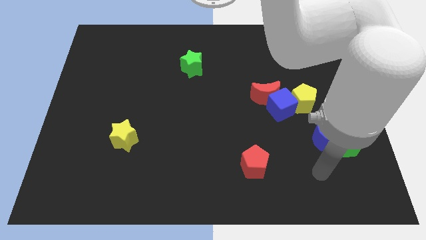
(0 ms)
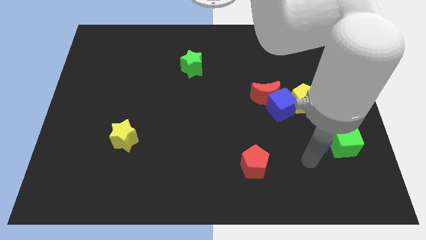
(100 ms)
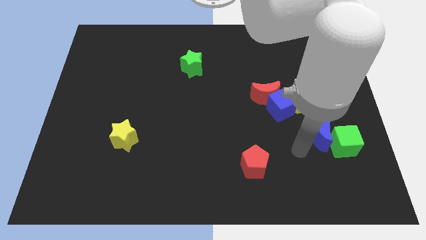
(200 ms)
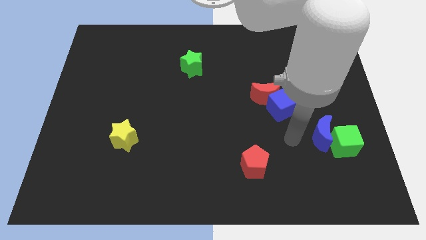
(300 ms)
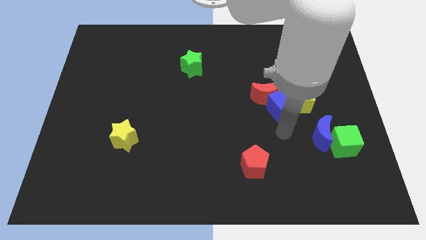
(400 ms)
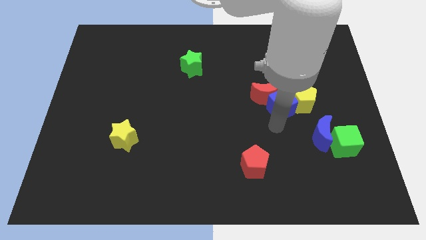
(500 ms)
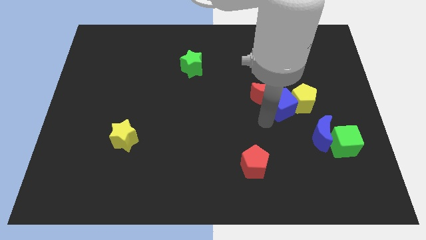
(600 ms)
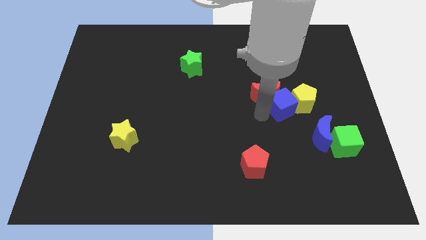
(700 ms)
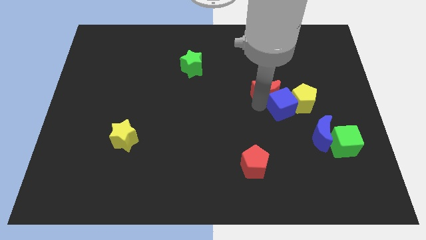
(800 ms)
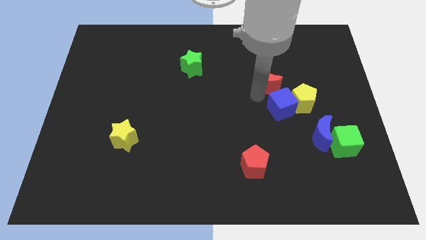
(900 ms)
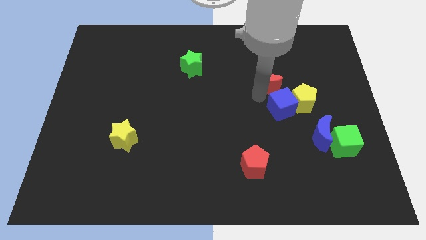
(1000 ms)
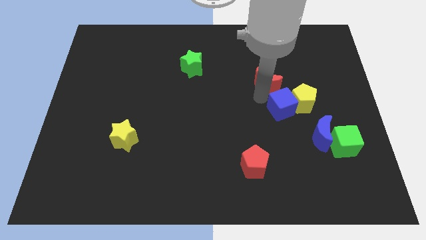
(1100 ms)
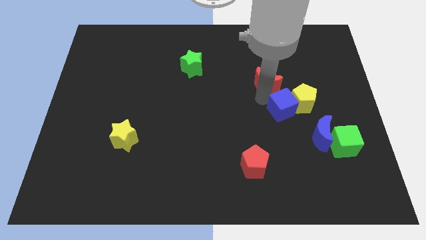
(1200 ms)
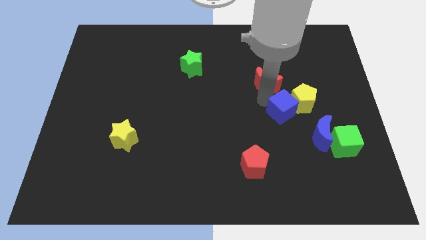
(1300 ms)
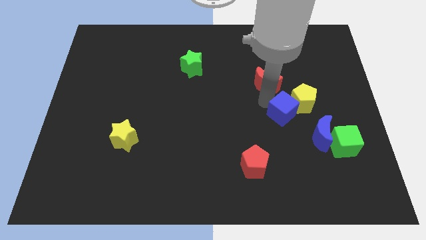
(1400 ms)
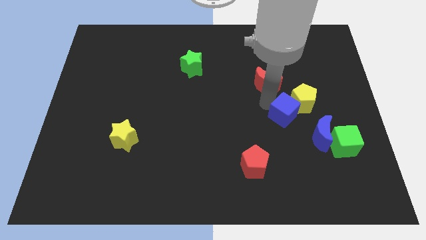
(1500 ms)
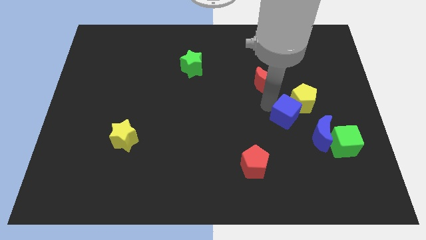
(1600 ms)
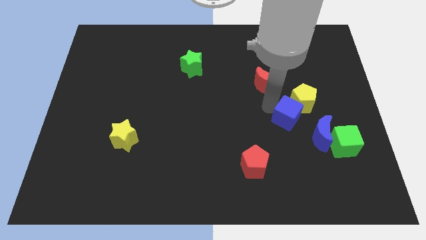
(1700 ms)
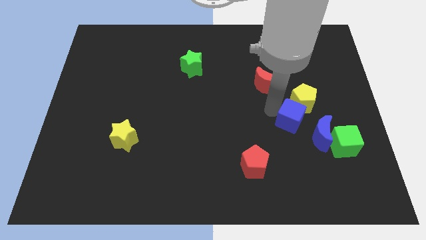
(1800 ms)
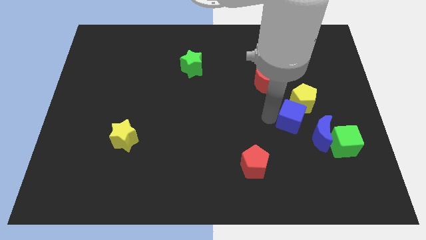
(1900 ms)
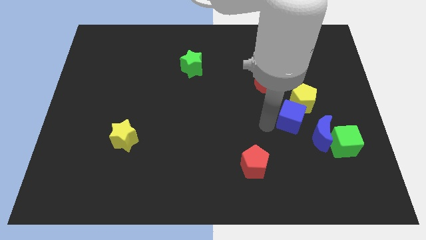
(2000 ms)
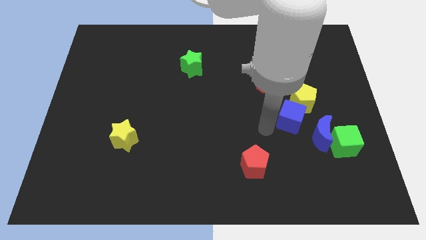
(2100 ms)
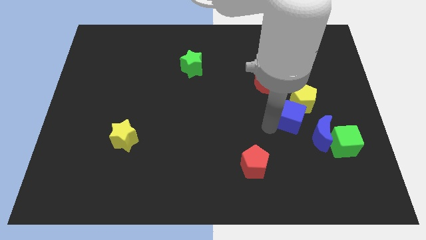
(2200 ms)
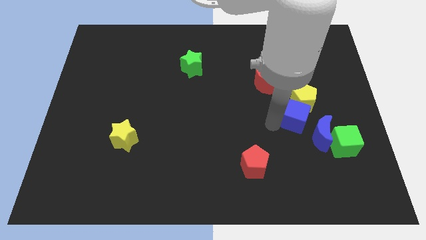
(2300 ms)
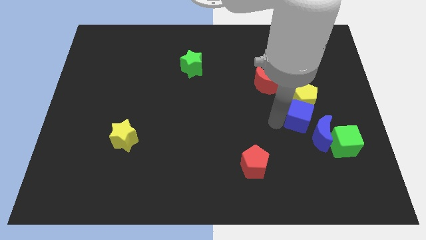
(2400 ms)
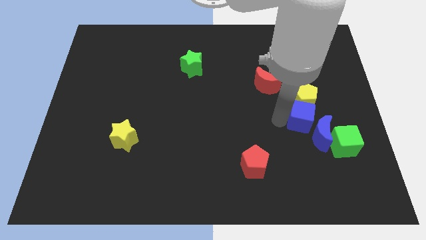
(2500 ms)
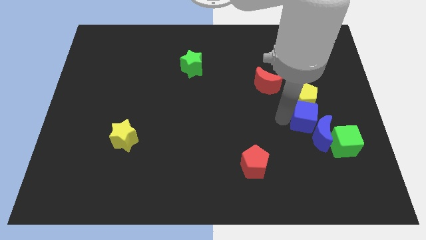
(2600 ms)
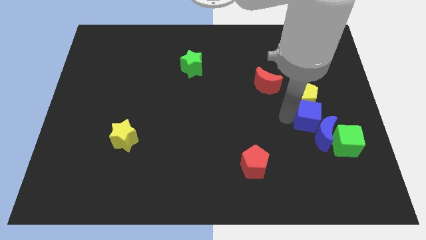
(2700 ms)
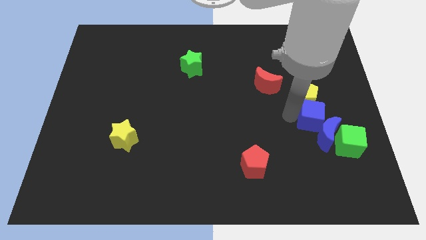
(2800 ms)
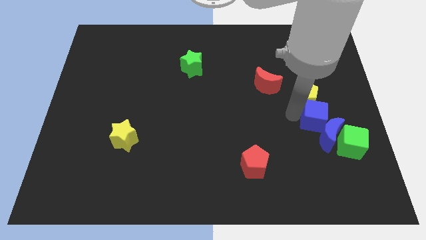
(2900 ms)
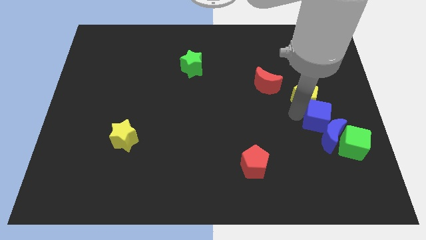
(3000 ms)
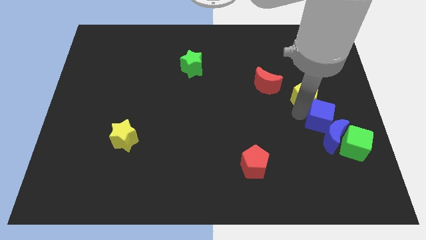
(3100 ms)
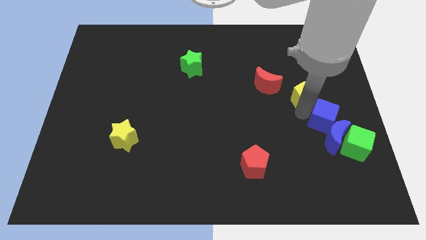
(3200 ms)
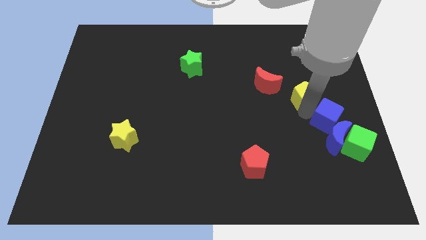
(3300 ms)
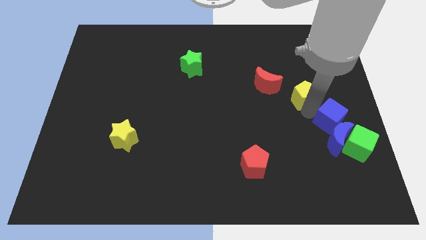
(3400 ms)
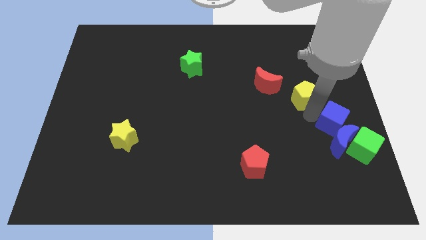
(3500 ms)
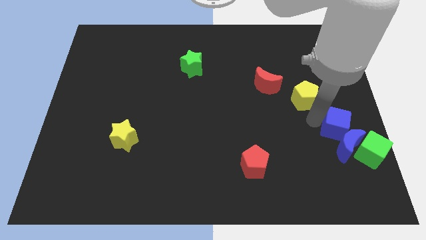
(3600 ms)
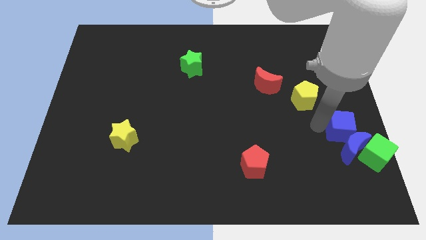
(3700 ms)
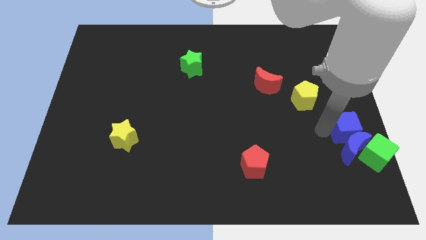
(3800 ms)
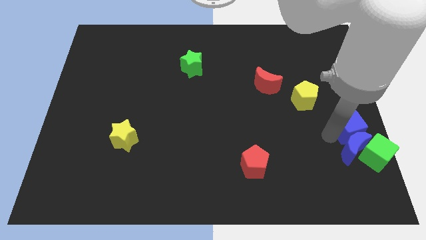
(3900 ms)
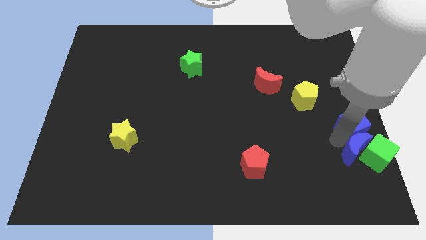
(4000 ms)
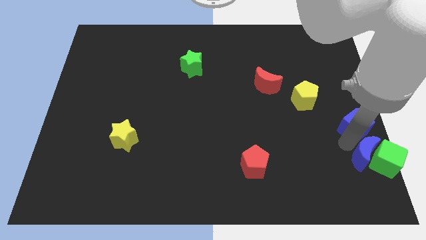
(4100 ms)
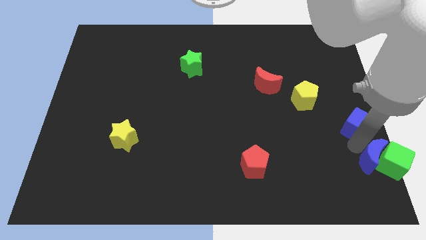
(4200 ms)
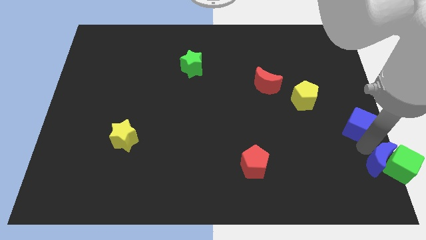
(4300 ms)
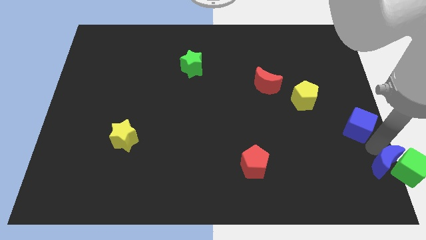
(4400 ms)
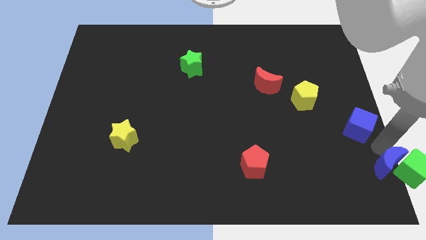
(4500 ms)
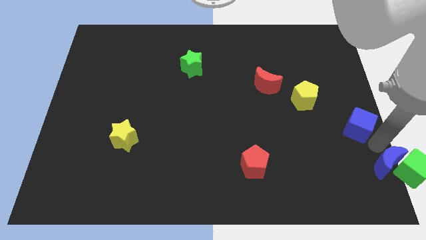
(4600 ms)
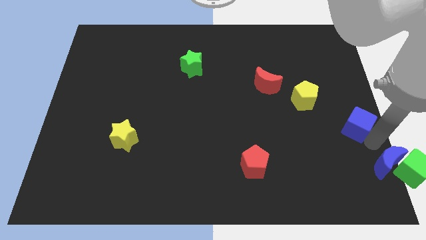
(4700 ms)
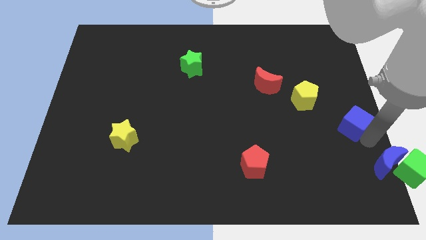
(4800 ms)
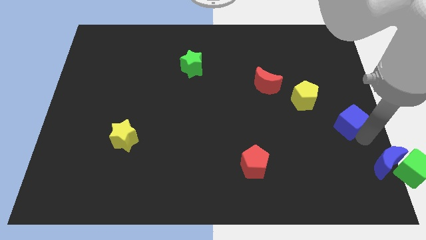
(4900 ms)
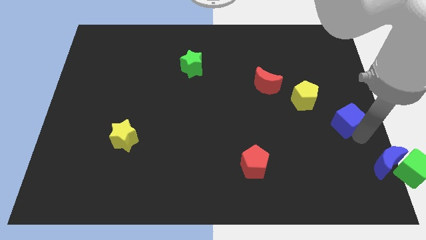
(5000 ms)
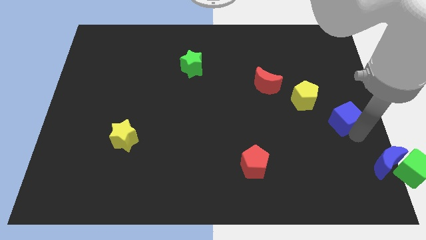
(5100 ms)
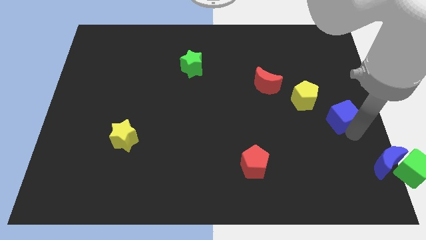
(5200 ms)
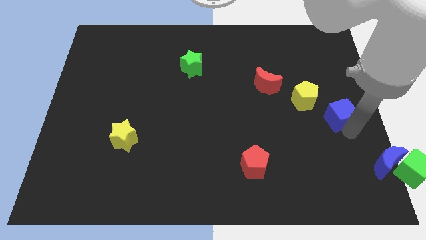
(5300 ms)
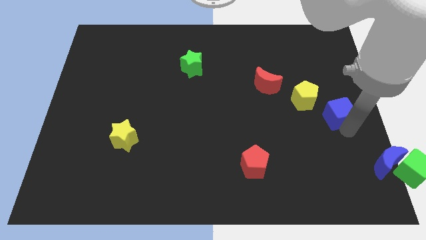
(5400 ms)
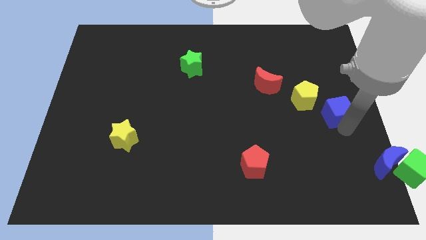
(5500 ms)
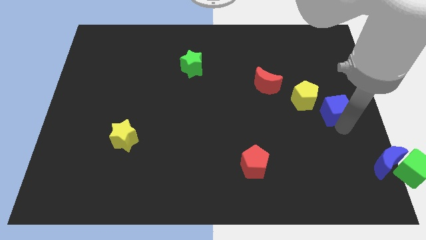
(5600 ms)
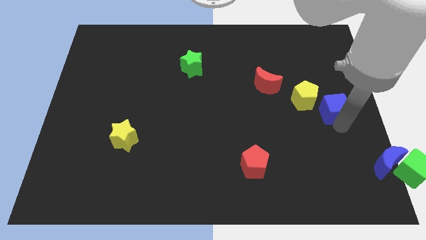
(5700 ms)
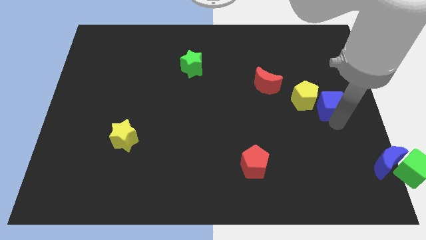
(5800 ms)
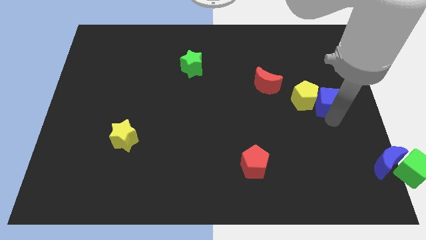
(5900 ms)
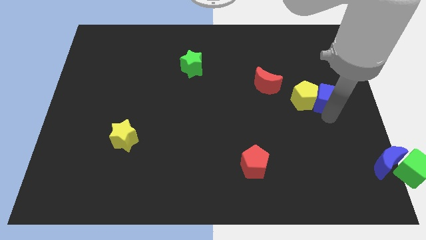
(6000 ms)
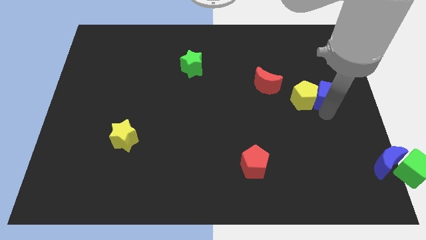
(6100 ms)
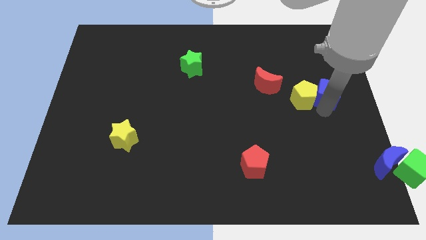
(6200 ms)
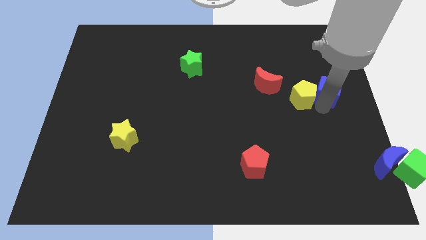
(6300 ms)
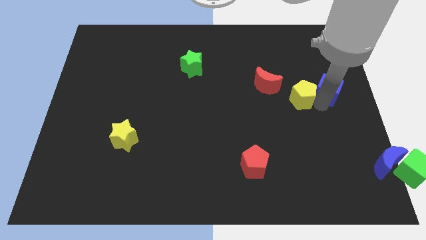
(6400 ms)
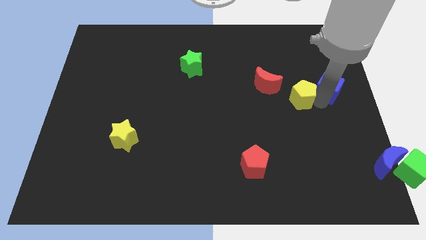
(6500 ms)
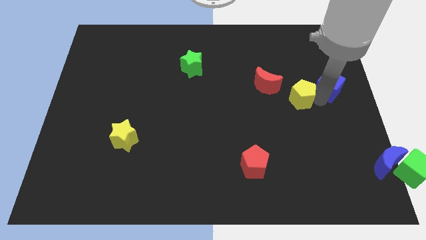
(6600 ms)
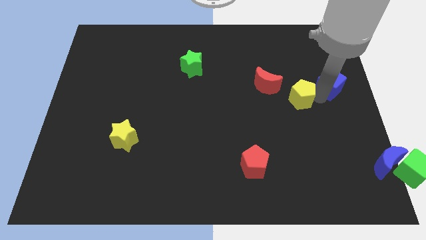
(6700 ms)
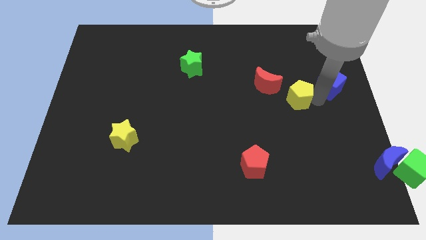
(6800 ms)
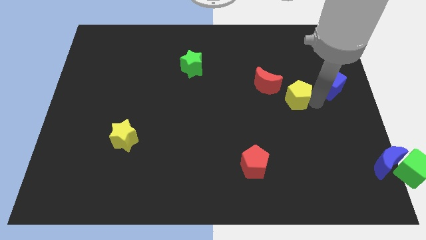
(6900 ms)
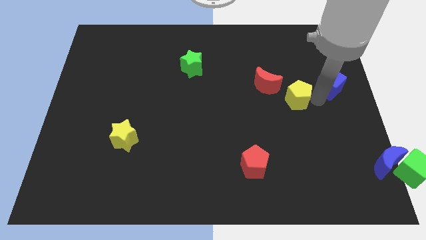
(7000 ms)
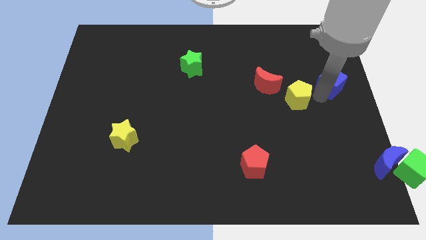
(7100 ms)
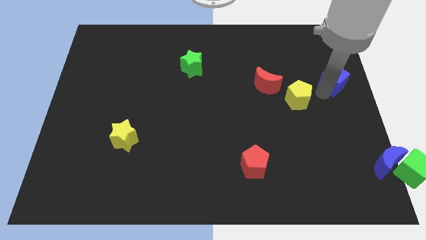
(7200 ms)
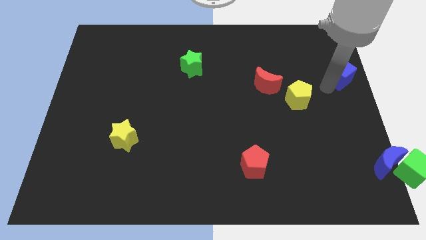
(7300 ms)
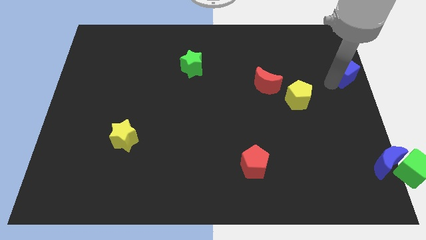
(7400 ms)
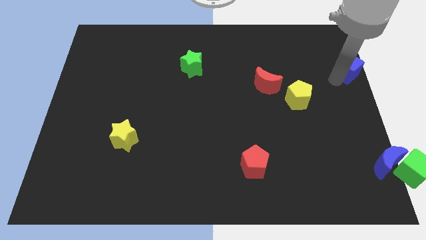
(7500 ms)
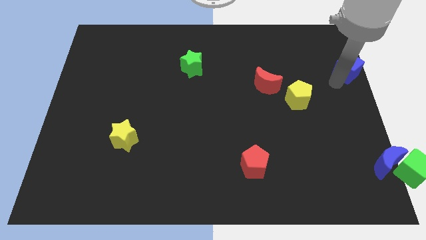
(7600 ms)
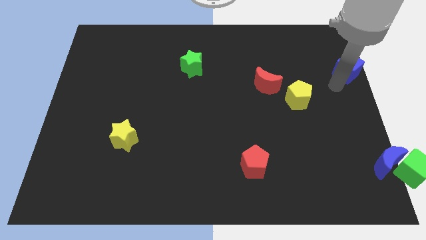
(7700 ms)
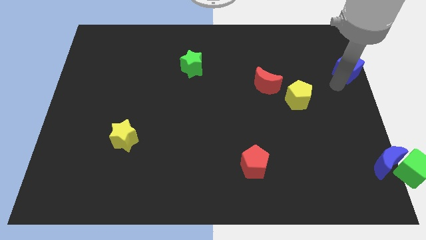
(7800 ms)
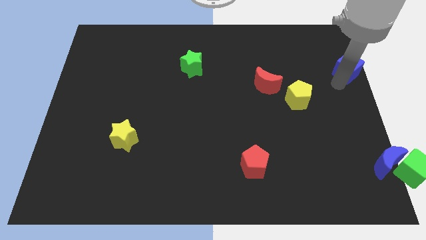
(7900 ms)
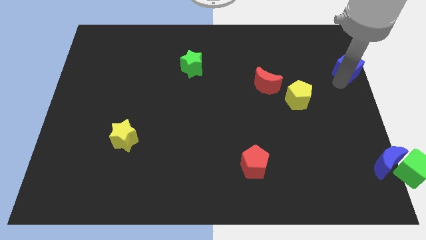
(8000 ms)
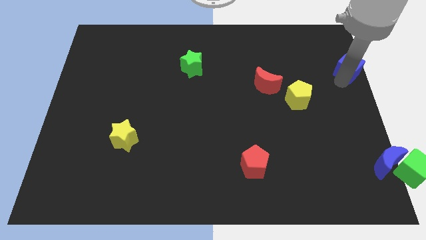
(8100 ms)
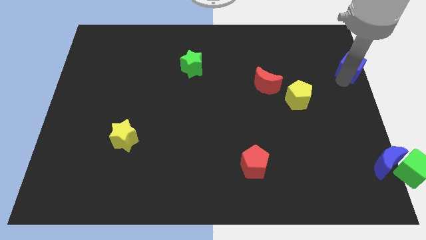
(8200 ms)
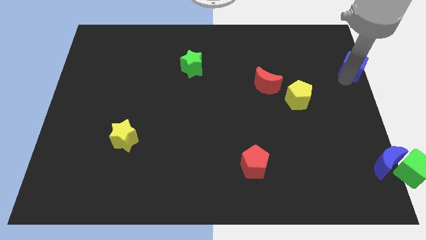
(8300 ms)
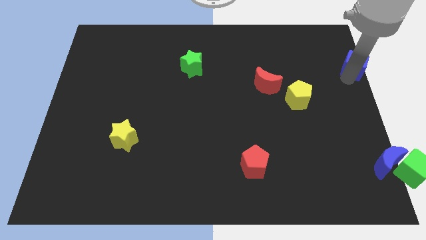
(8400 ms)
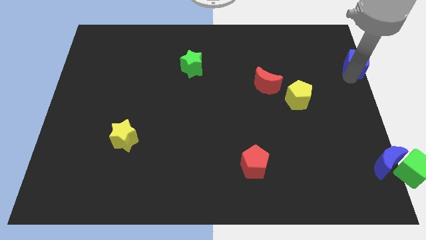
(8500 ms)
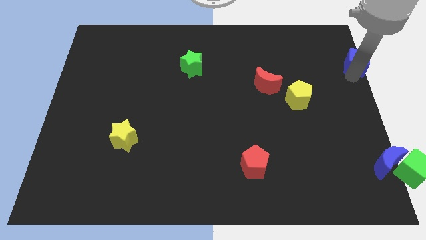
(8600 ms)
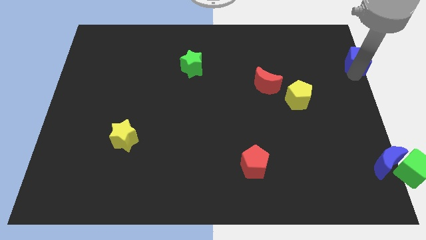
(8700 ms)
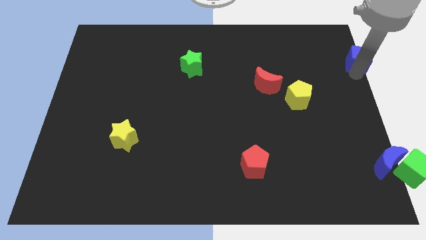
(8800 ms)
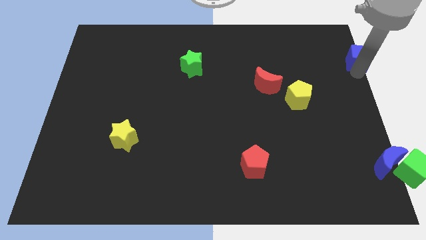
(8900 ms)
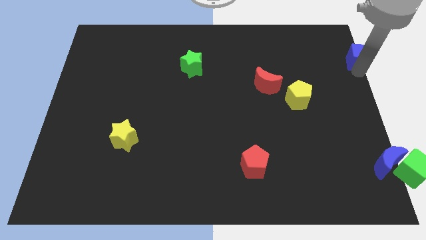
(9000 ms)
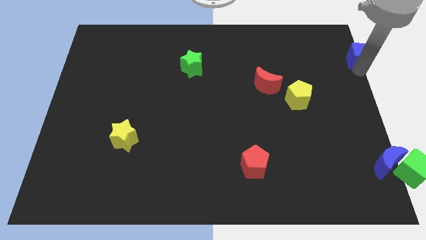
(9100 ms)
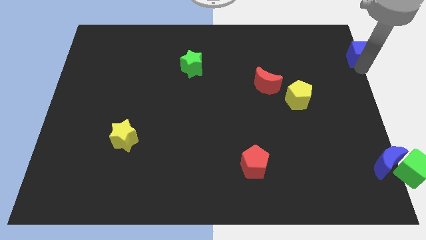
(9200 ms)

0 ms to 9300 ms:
move the blue cube to the top right of the board
